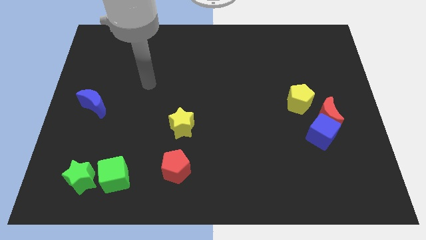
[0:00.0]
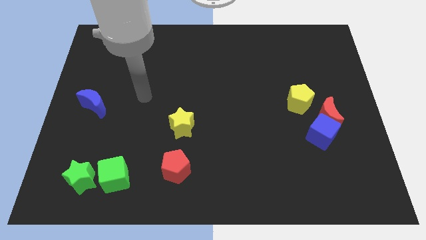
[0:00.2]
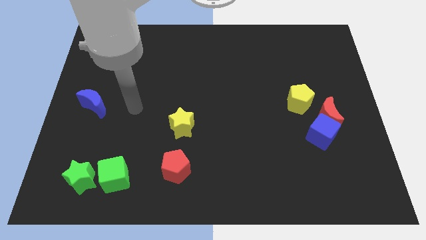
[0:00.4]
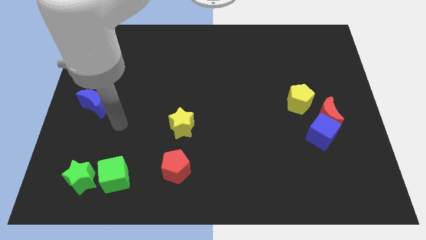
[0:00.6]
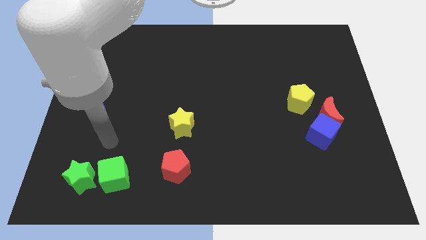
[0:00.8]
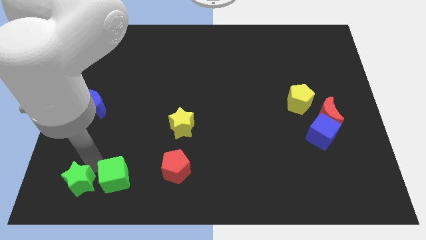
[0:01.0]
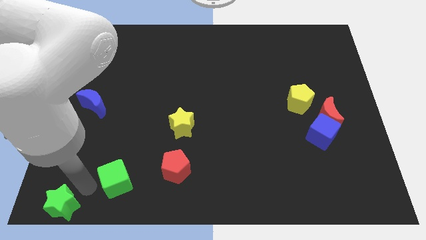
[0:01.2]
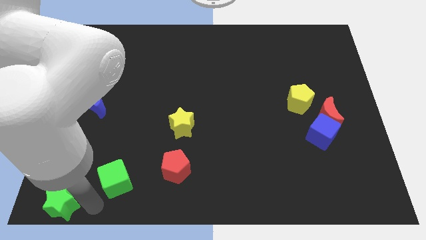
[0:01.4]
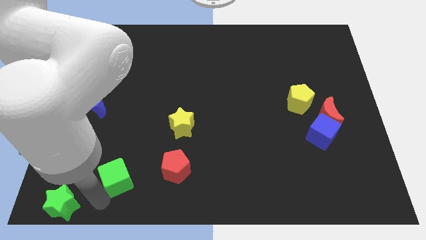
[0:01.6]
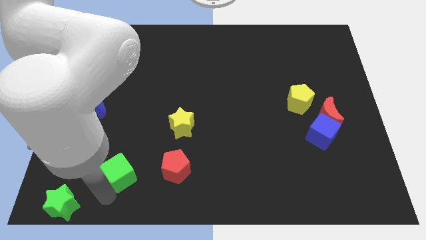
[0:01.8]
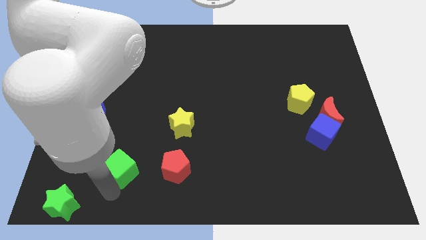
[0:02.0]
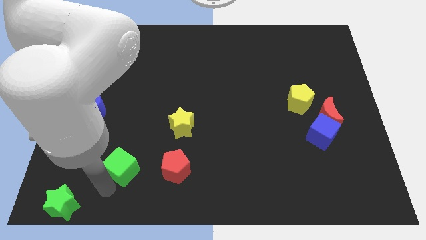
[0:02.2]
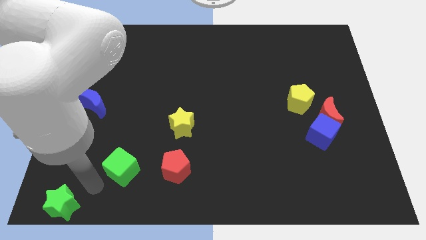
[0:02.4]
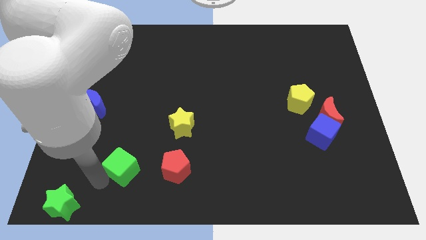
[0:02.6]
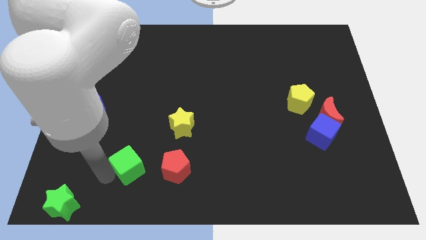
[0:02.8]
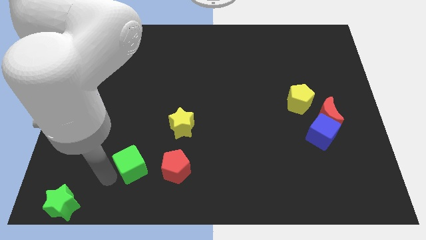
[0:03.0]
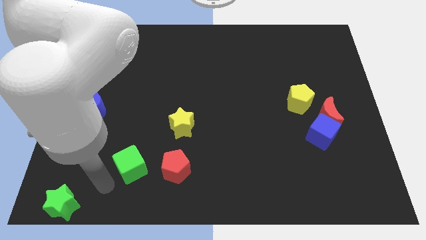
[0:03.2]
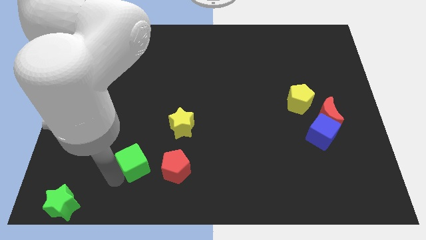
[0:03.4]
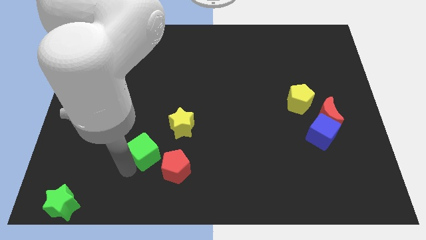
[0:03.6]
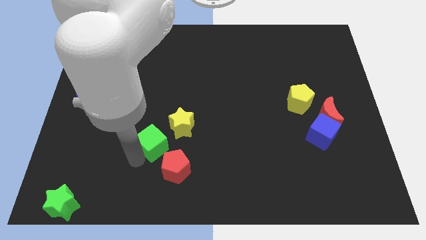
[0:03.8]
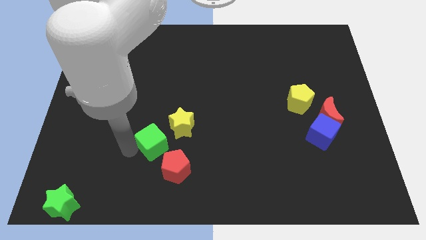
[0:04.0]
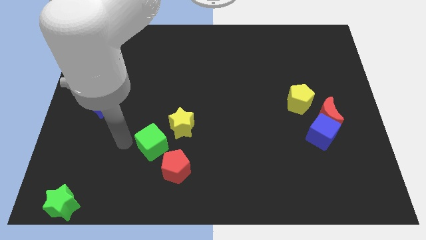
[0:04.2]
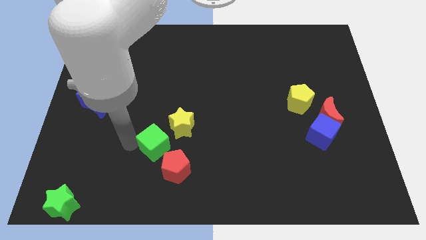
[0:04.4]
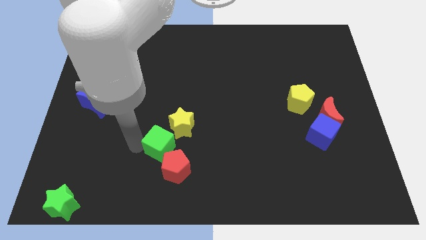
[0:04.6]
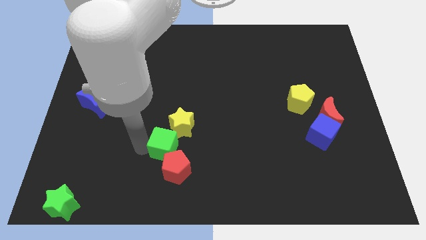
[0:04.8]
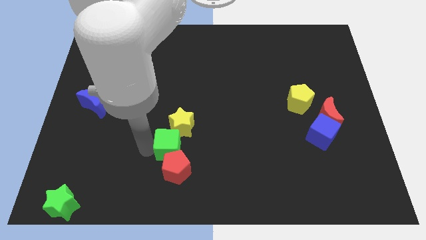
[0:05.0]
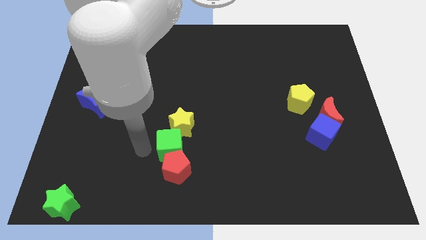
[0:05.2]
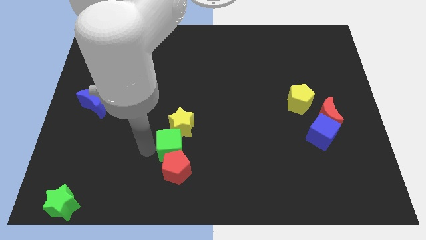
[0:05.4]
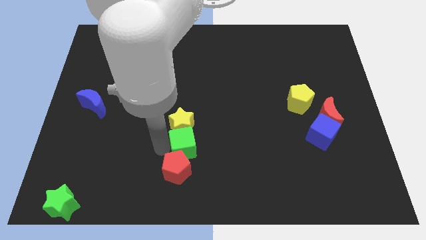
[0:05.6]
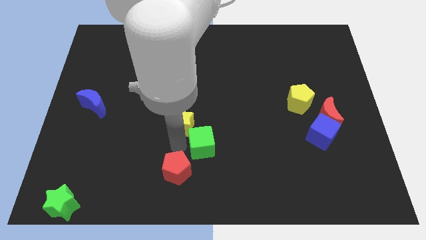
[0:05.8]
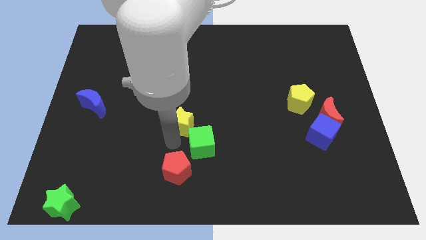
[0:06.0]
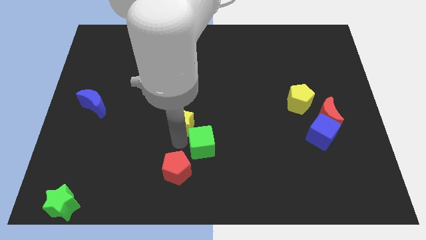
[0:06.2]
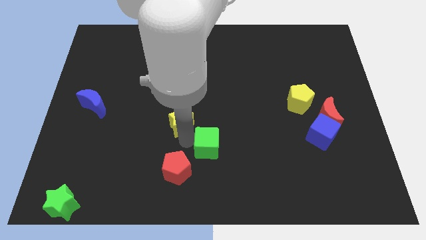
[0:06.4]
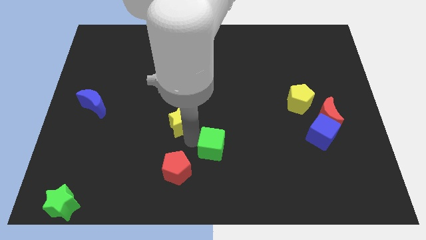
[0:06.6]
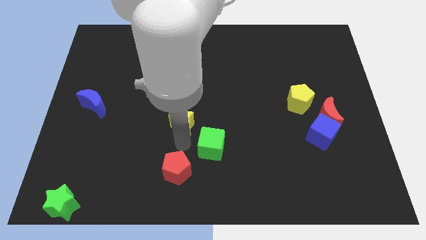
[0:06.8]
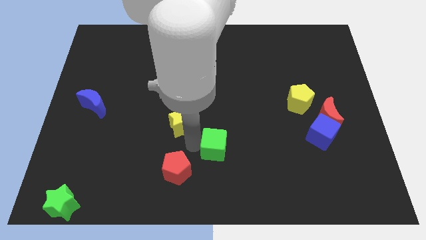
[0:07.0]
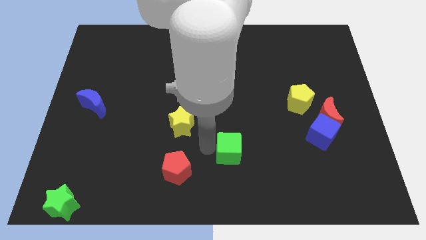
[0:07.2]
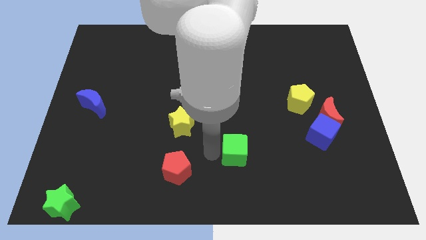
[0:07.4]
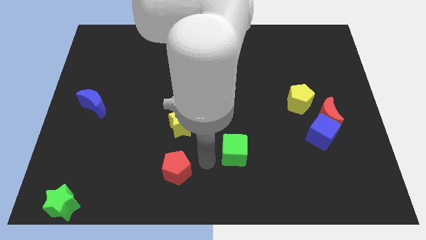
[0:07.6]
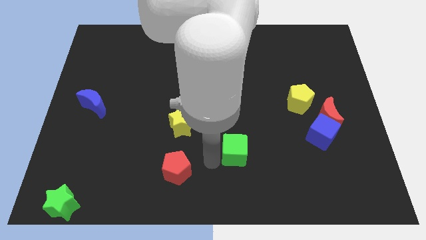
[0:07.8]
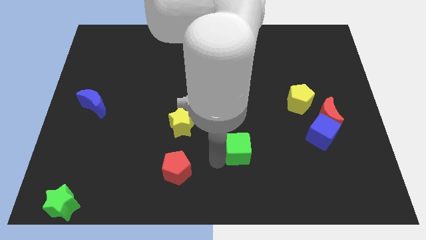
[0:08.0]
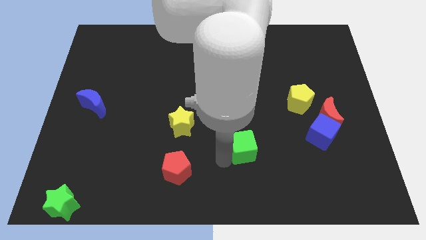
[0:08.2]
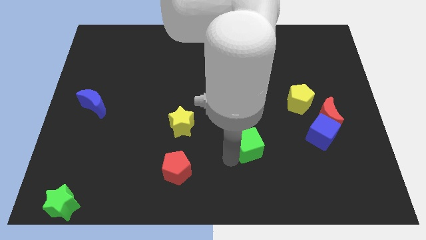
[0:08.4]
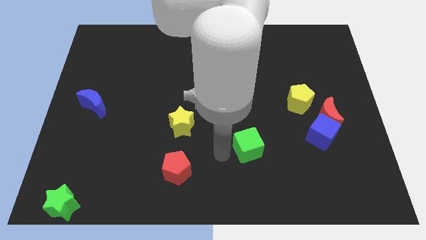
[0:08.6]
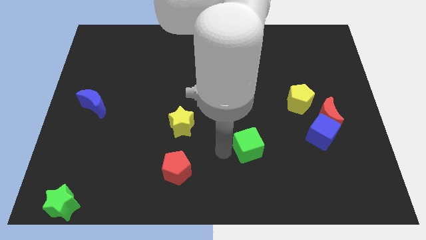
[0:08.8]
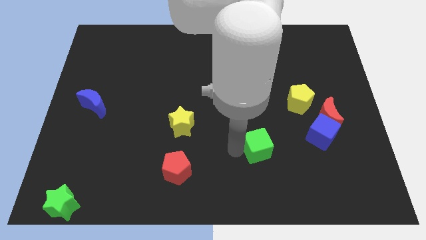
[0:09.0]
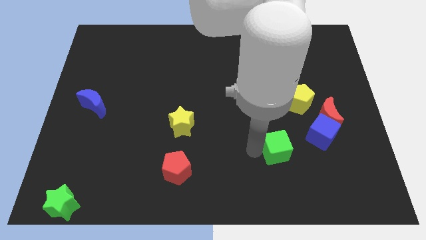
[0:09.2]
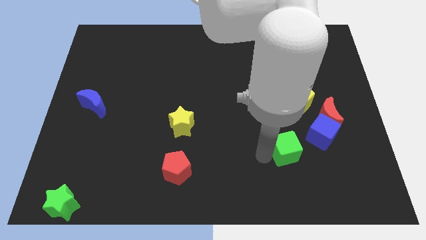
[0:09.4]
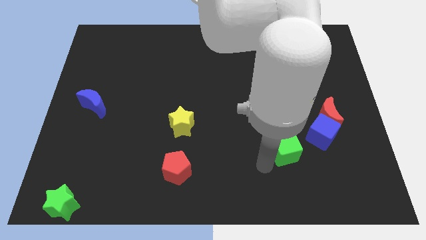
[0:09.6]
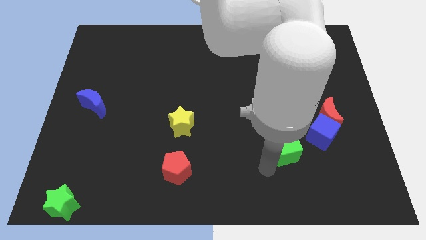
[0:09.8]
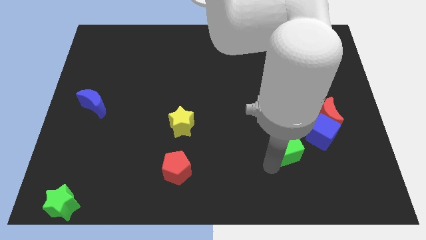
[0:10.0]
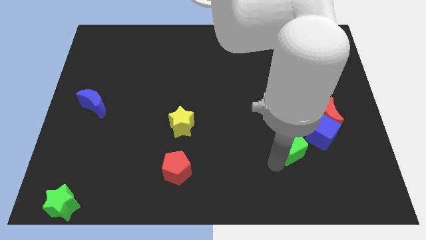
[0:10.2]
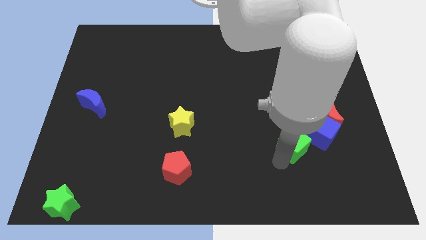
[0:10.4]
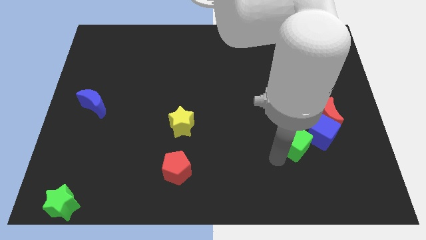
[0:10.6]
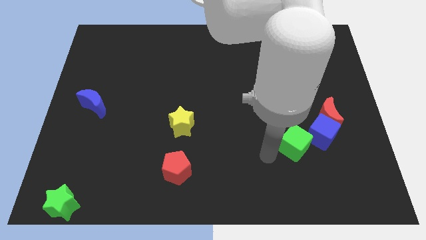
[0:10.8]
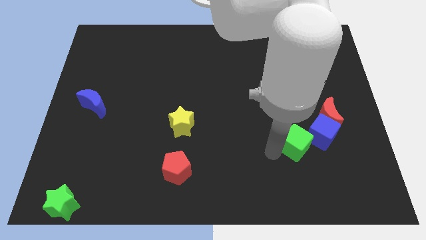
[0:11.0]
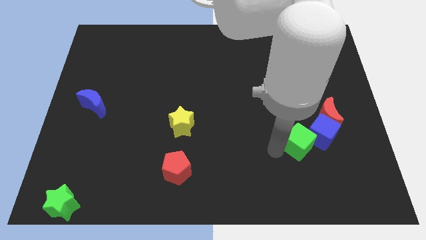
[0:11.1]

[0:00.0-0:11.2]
push the green cube to the blue cube

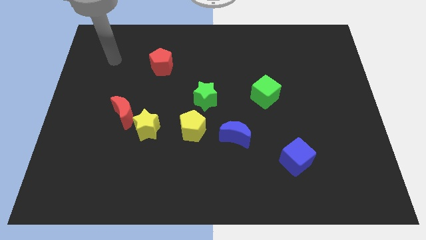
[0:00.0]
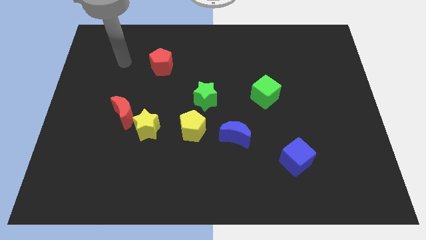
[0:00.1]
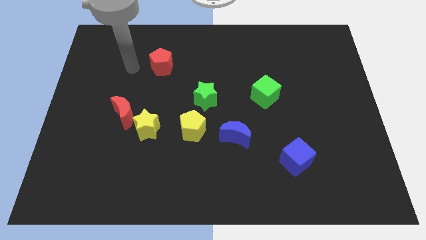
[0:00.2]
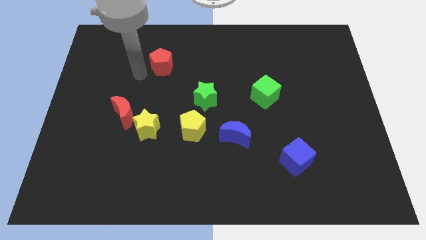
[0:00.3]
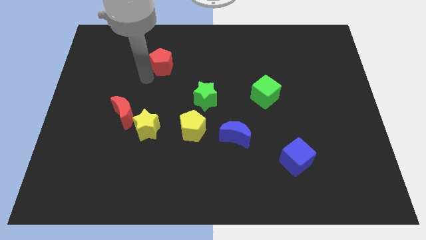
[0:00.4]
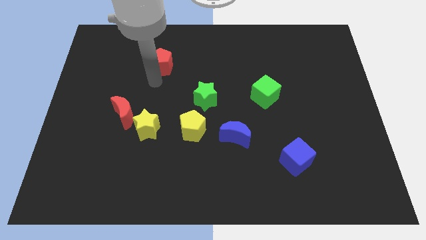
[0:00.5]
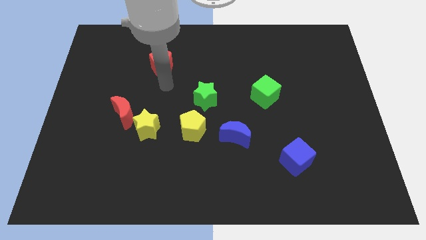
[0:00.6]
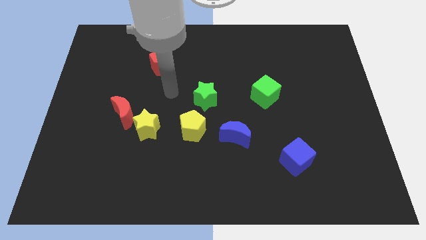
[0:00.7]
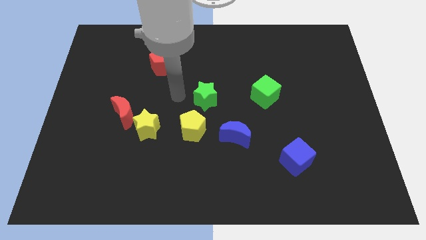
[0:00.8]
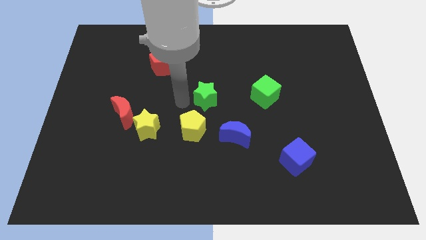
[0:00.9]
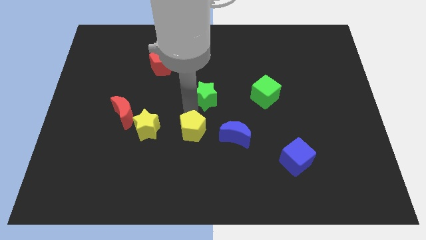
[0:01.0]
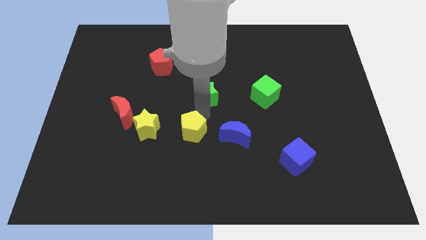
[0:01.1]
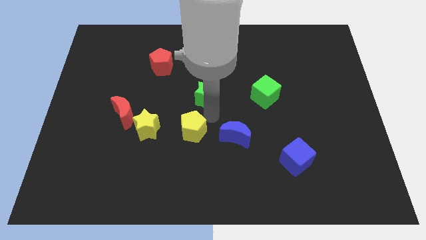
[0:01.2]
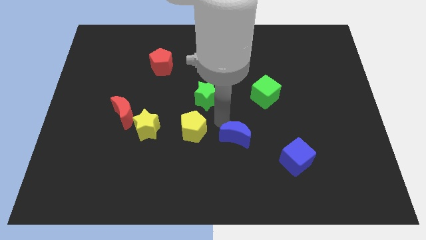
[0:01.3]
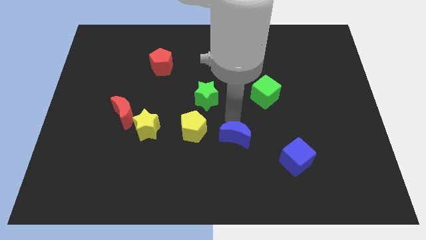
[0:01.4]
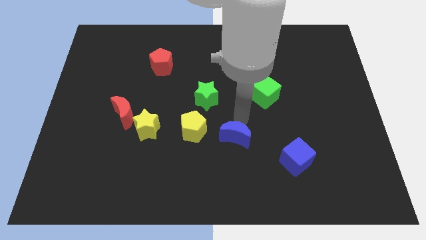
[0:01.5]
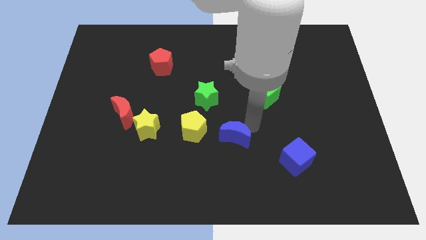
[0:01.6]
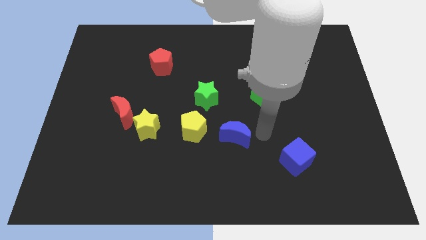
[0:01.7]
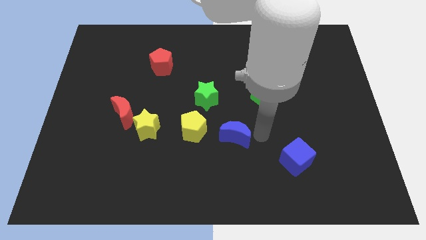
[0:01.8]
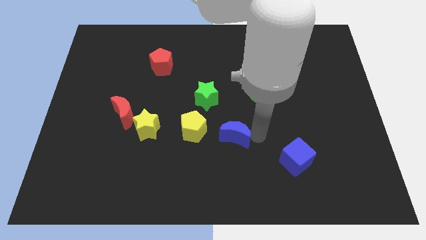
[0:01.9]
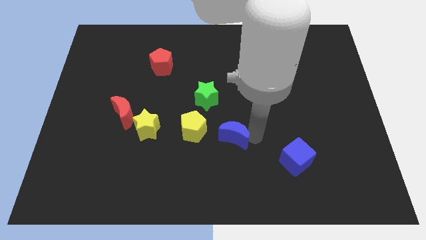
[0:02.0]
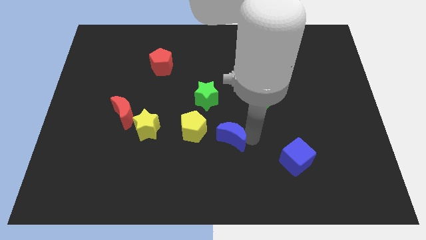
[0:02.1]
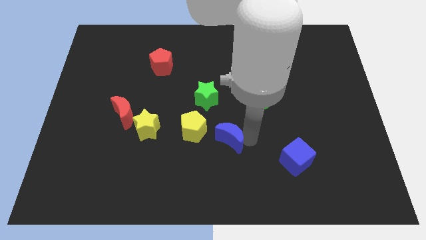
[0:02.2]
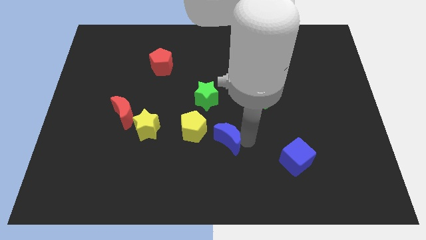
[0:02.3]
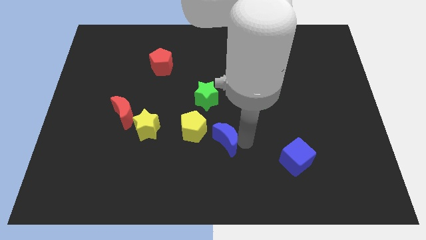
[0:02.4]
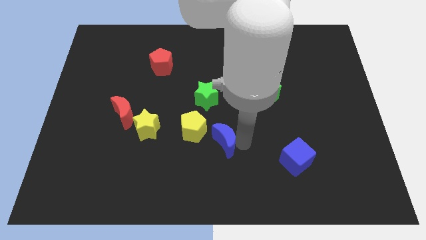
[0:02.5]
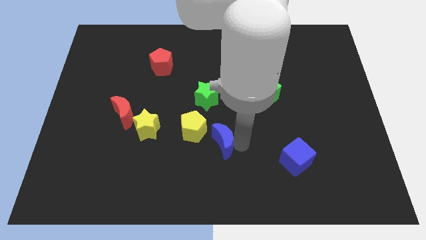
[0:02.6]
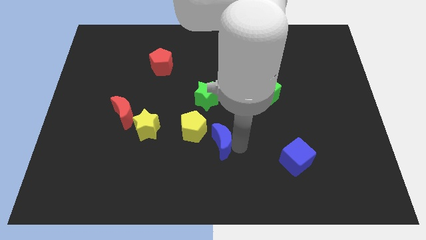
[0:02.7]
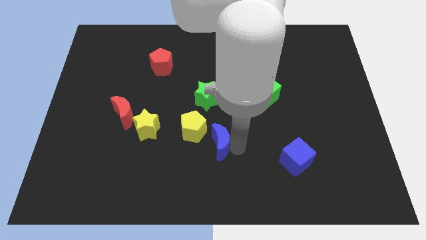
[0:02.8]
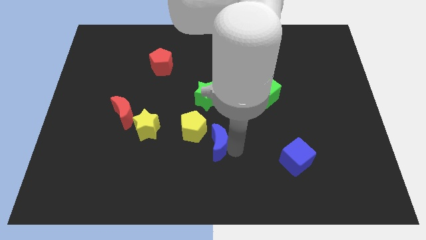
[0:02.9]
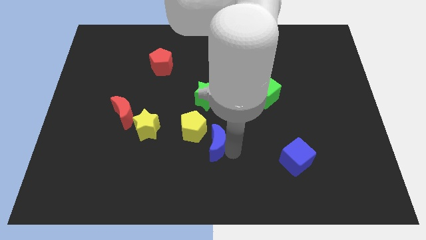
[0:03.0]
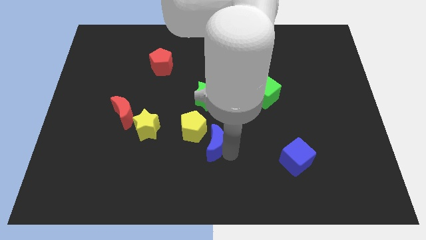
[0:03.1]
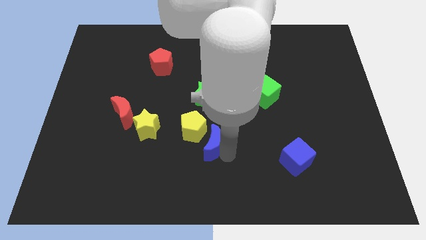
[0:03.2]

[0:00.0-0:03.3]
put the blue moon close to the yellow pentagon
